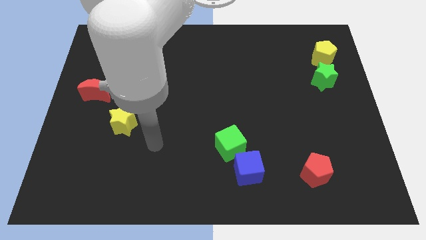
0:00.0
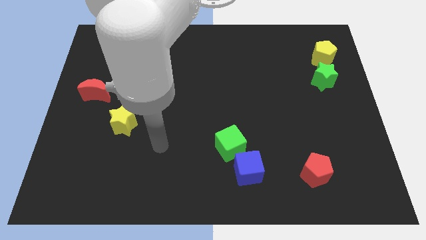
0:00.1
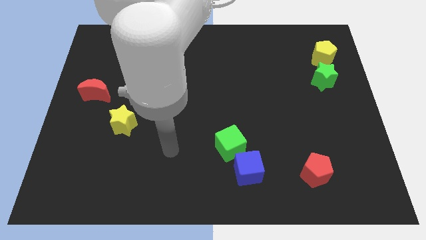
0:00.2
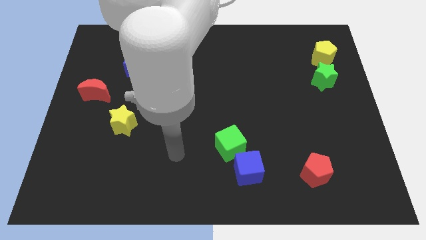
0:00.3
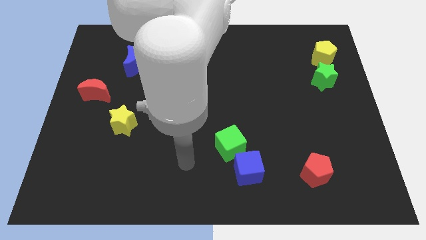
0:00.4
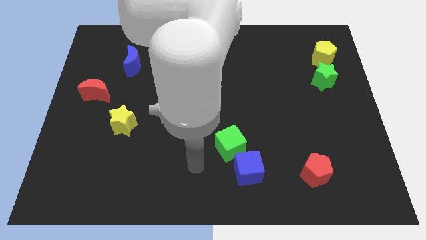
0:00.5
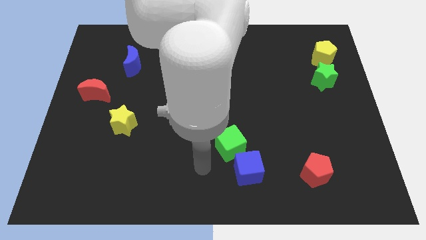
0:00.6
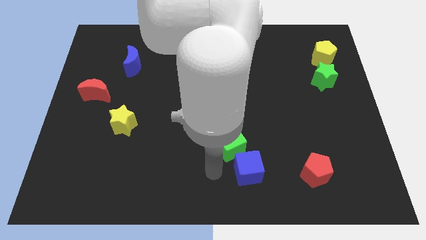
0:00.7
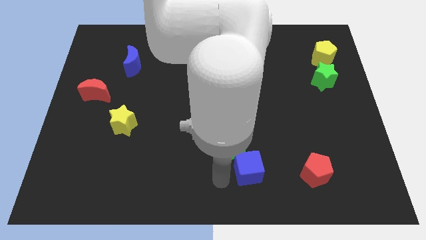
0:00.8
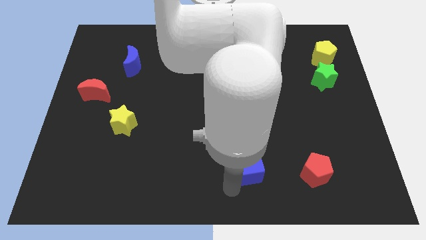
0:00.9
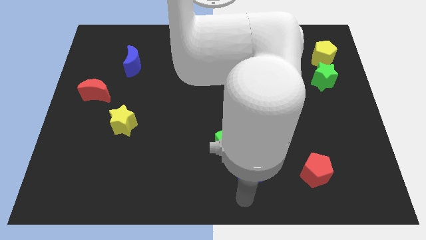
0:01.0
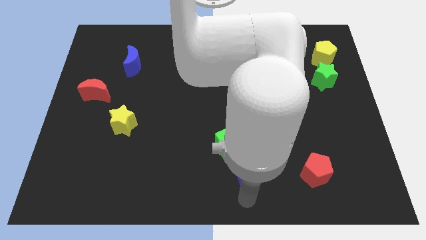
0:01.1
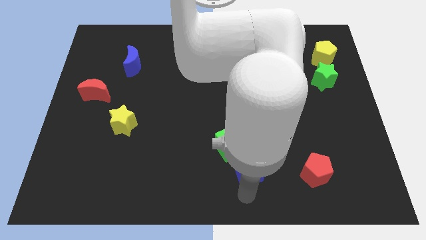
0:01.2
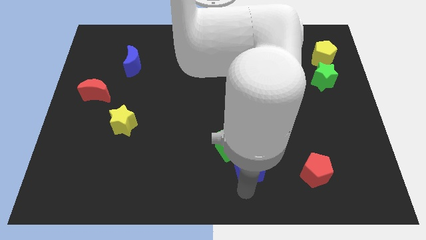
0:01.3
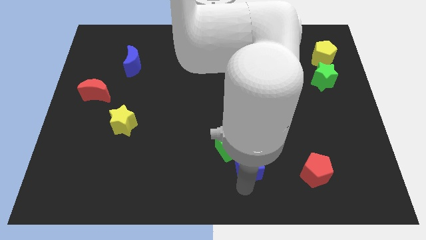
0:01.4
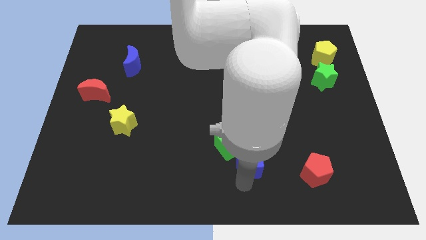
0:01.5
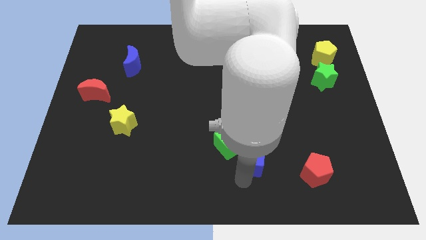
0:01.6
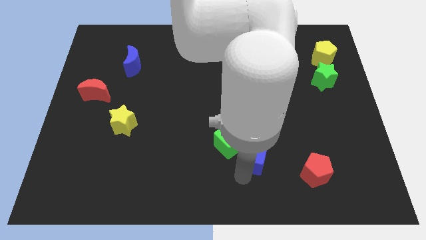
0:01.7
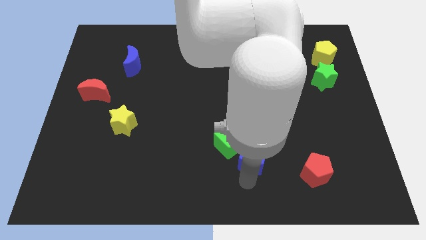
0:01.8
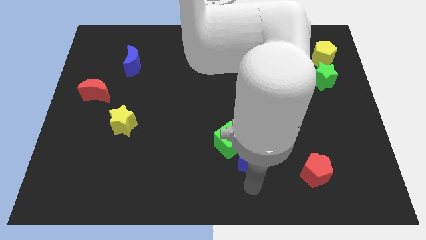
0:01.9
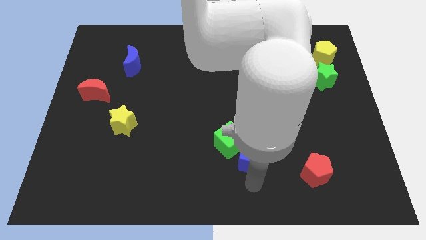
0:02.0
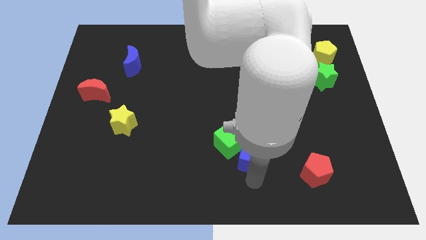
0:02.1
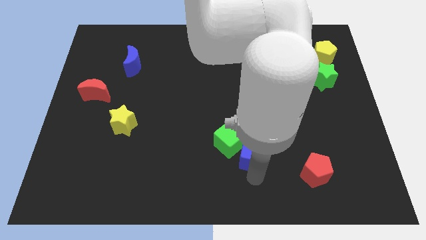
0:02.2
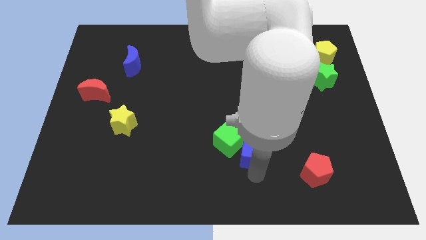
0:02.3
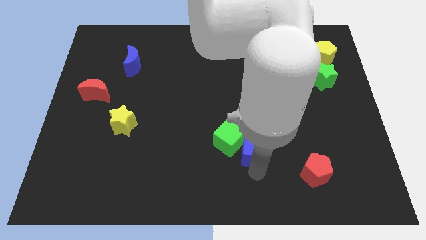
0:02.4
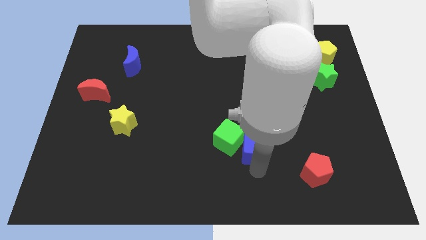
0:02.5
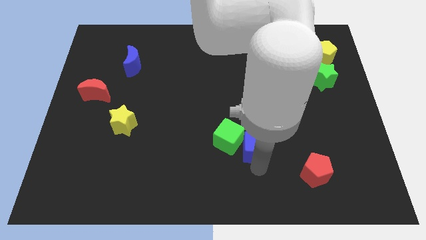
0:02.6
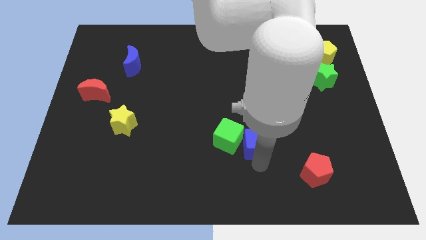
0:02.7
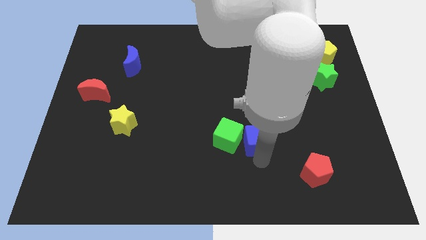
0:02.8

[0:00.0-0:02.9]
push the blue cube upwards a little bit

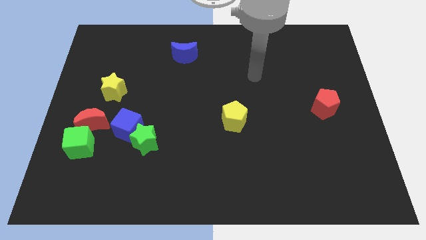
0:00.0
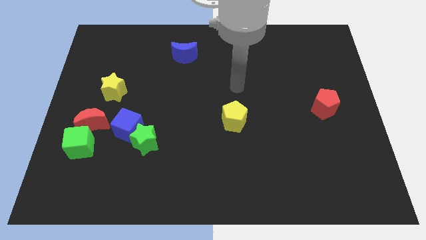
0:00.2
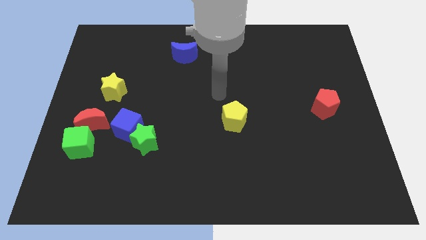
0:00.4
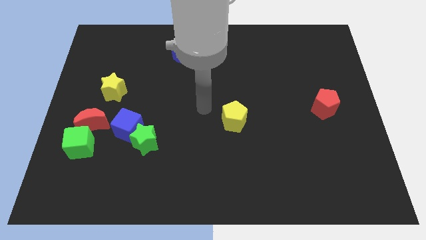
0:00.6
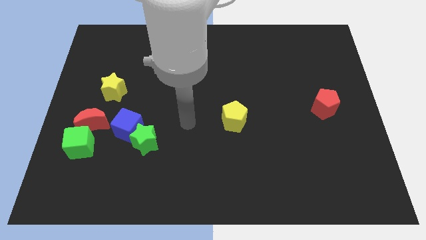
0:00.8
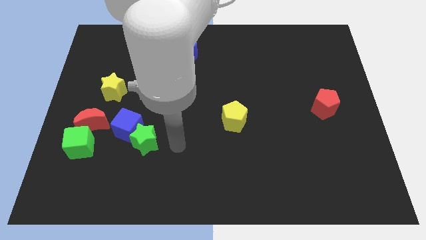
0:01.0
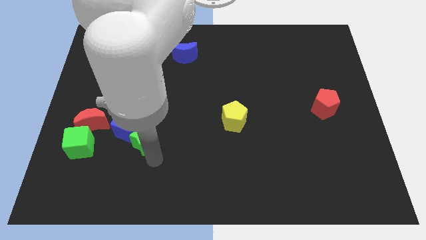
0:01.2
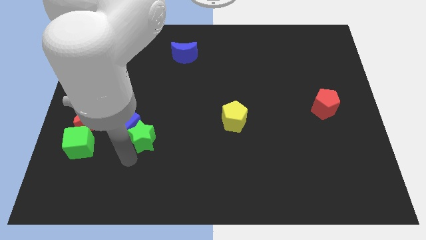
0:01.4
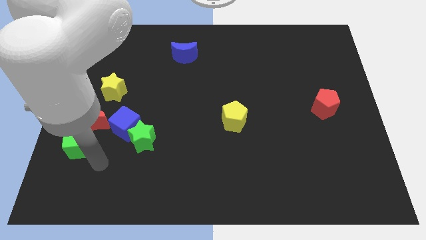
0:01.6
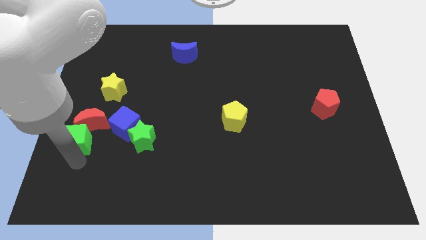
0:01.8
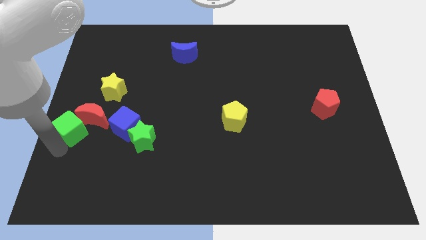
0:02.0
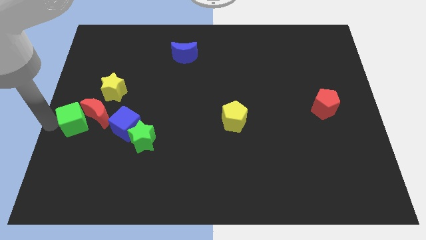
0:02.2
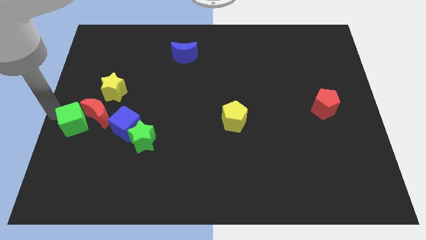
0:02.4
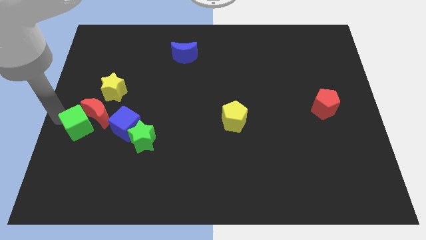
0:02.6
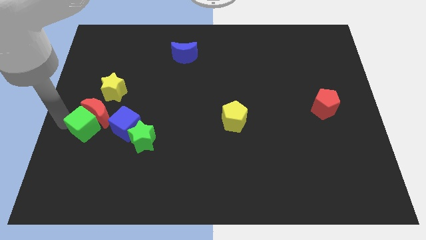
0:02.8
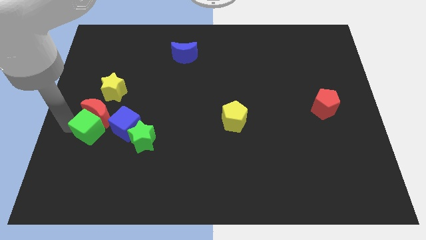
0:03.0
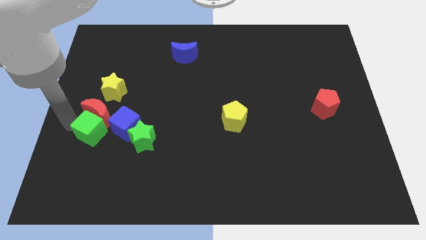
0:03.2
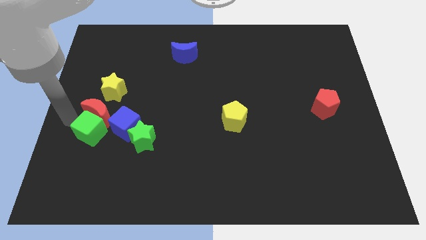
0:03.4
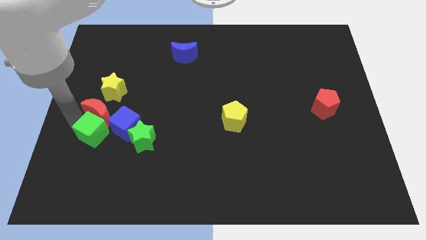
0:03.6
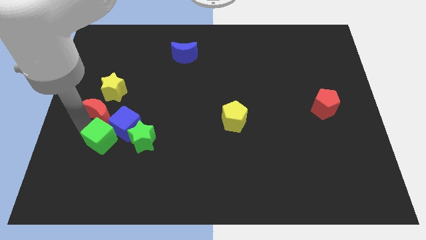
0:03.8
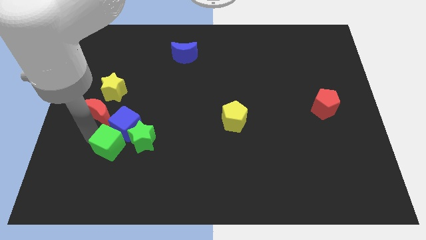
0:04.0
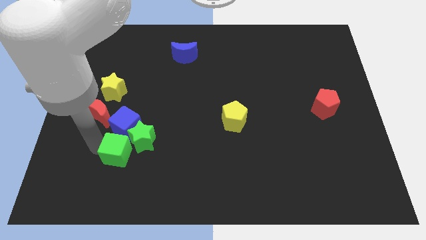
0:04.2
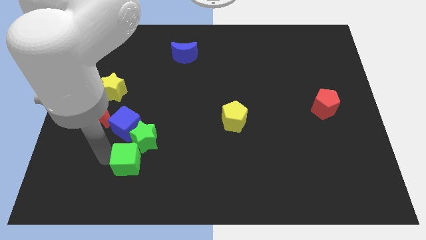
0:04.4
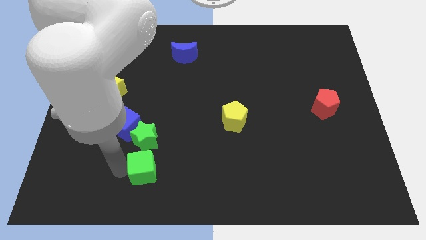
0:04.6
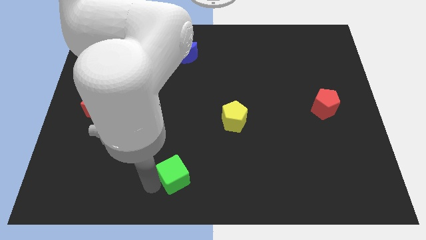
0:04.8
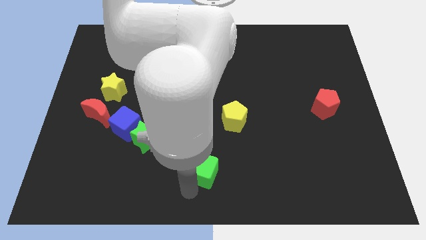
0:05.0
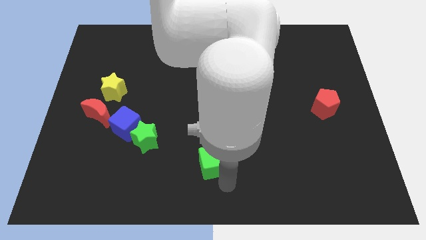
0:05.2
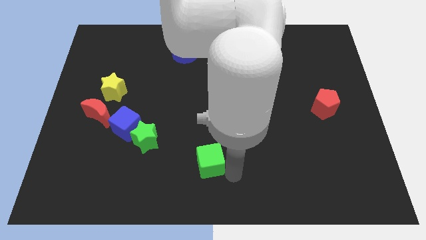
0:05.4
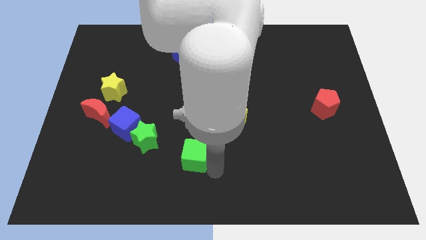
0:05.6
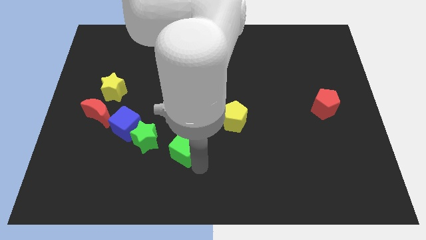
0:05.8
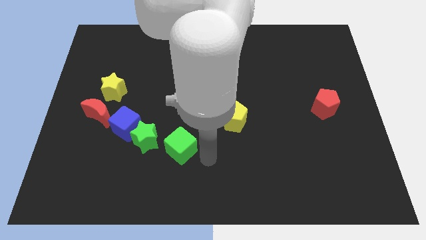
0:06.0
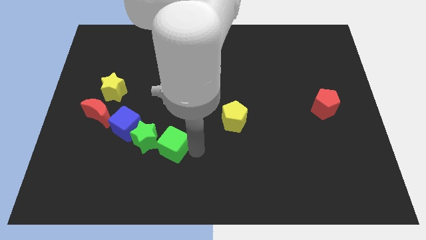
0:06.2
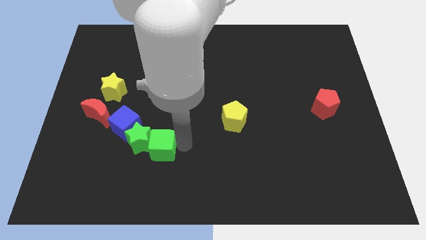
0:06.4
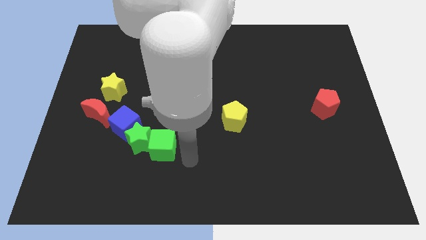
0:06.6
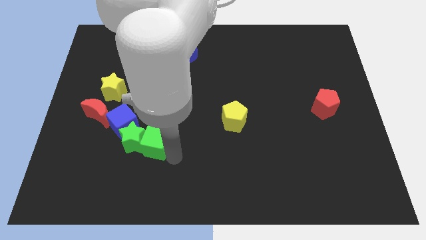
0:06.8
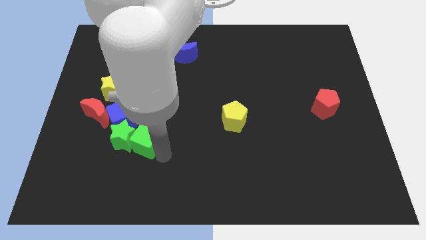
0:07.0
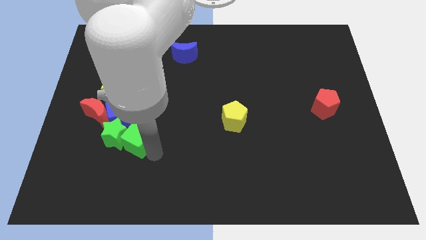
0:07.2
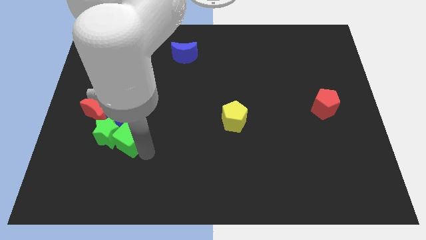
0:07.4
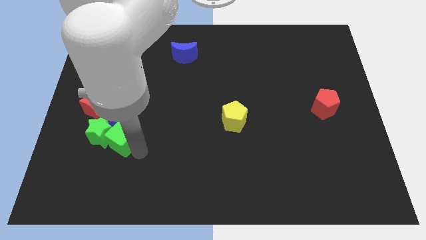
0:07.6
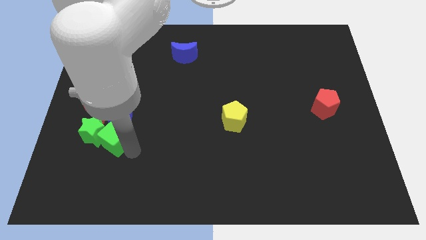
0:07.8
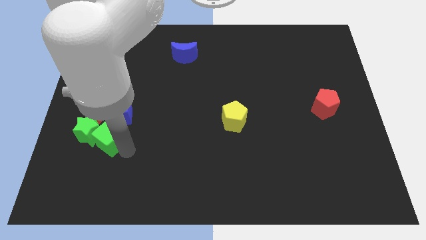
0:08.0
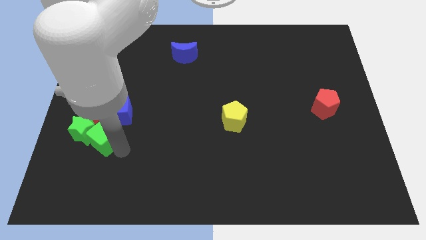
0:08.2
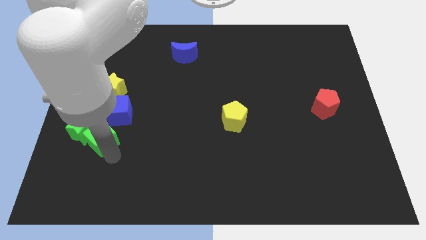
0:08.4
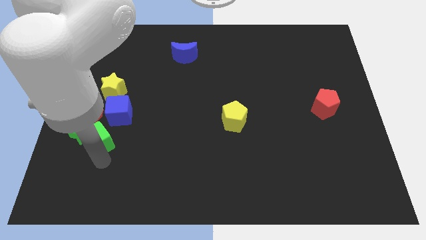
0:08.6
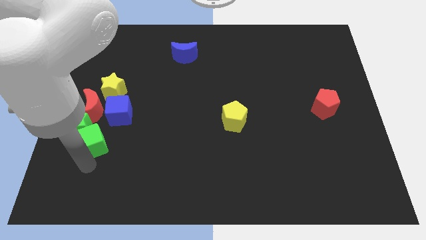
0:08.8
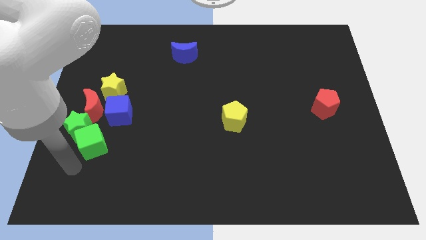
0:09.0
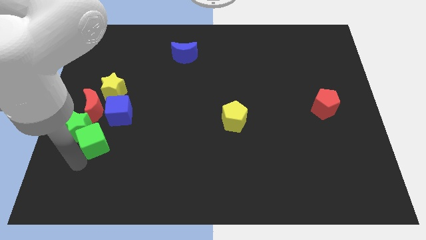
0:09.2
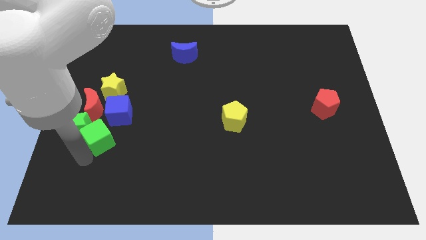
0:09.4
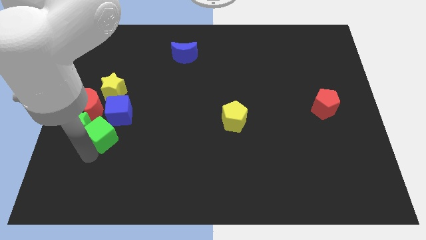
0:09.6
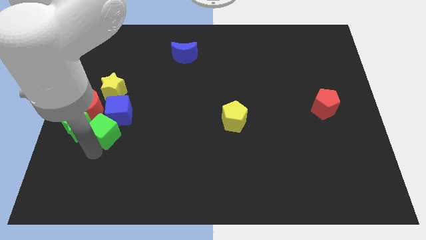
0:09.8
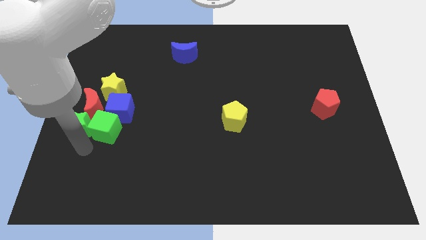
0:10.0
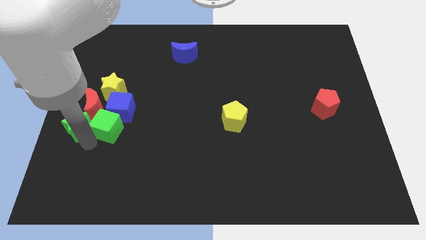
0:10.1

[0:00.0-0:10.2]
slightly push the green cube up and right

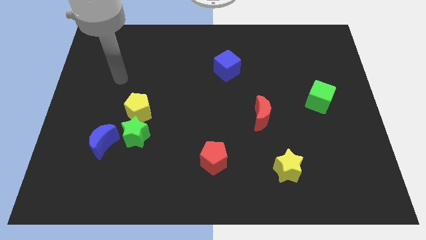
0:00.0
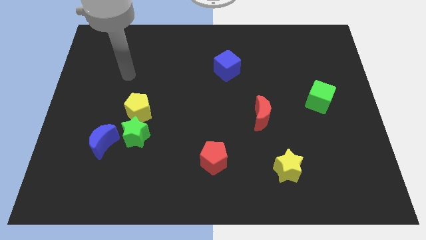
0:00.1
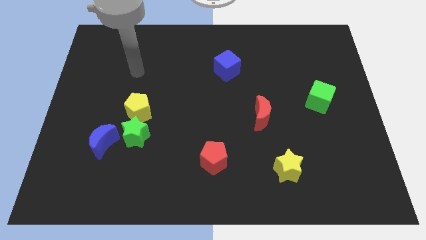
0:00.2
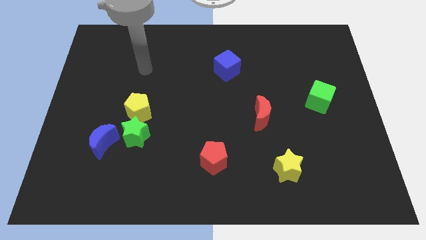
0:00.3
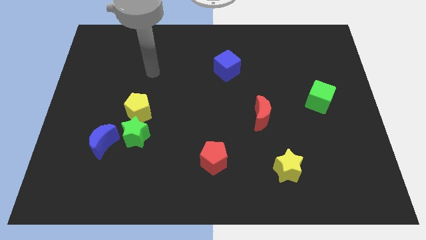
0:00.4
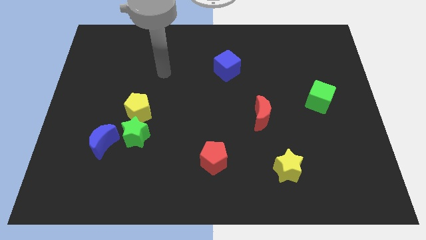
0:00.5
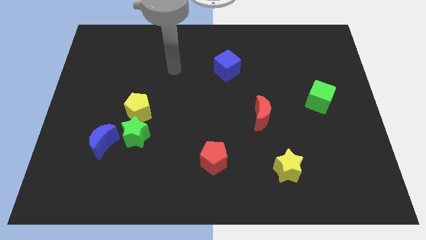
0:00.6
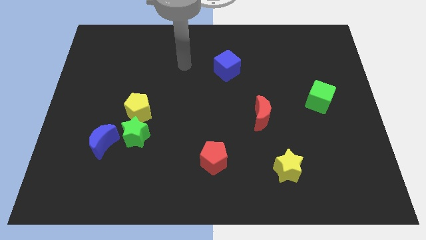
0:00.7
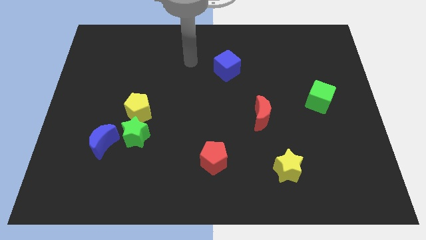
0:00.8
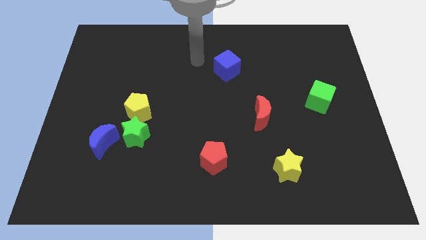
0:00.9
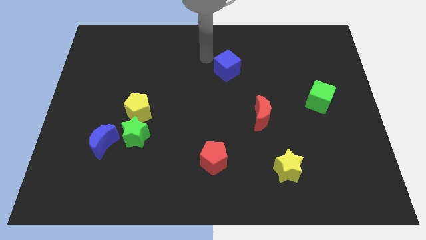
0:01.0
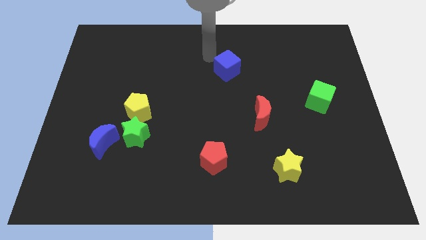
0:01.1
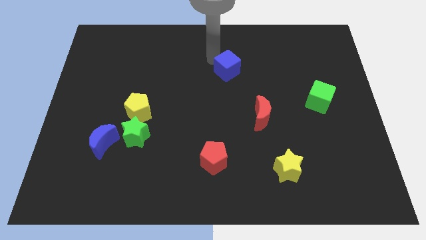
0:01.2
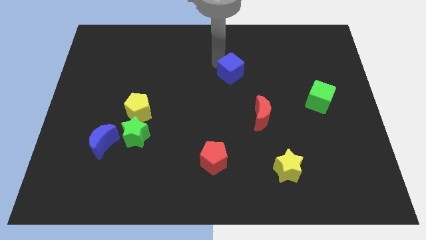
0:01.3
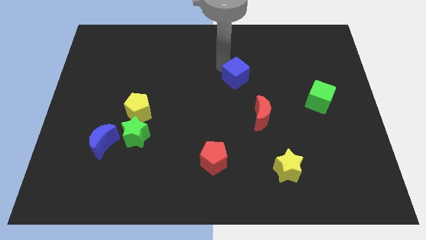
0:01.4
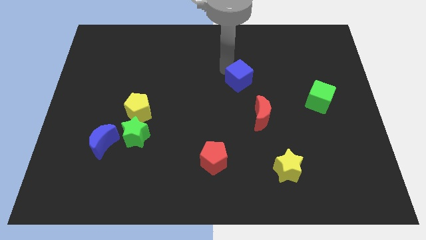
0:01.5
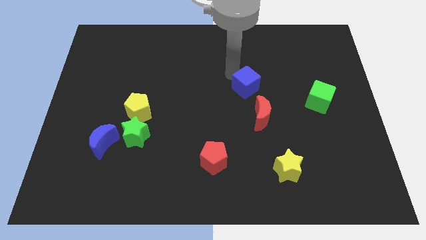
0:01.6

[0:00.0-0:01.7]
slightly slide the blue cube downwards and right diagonally
